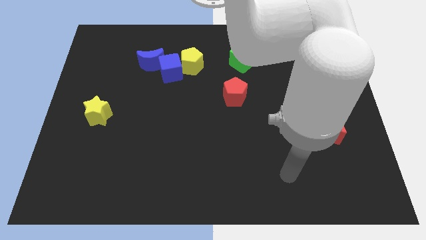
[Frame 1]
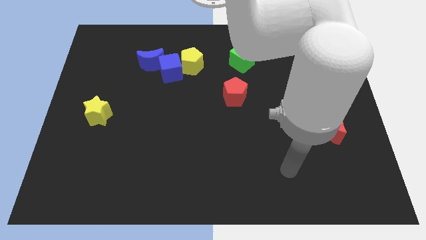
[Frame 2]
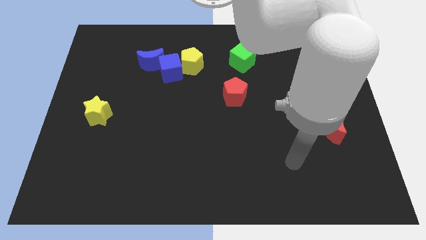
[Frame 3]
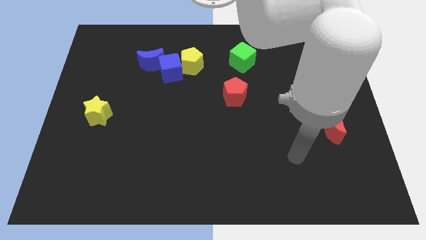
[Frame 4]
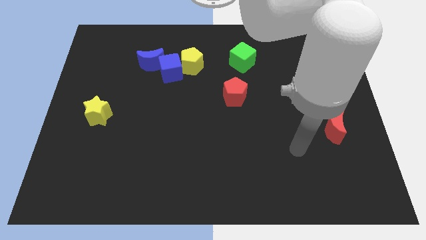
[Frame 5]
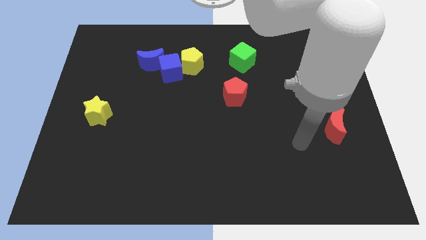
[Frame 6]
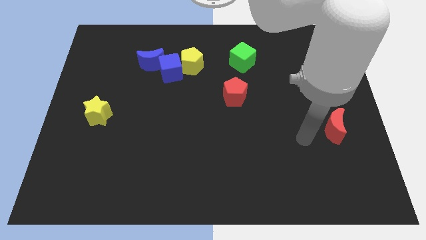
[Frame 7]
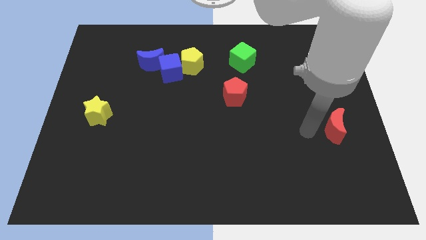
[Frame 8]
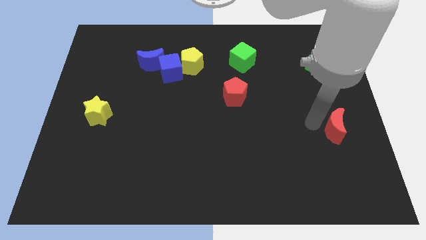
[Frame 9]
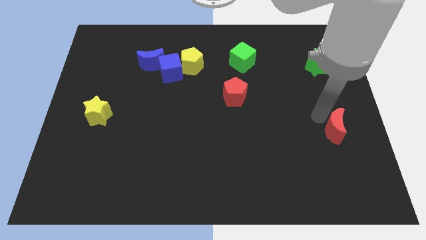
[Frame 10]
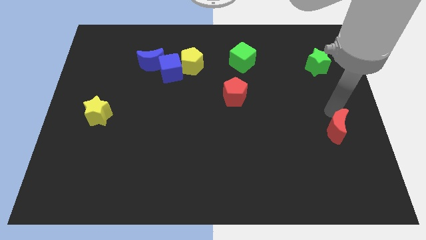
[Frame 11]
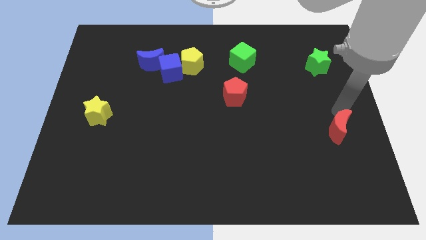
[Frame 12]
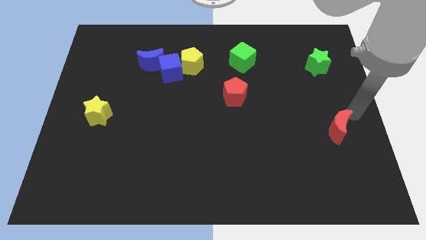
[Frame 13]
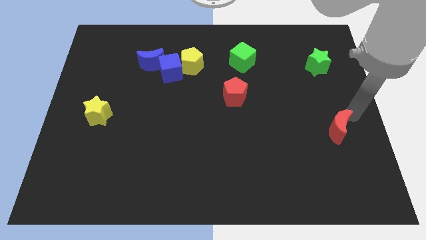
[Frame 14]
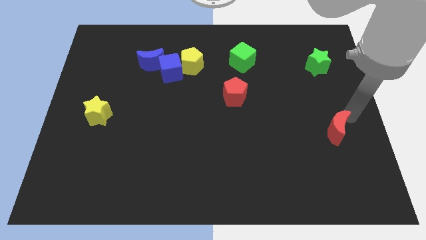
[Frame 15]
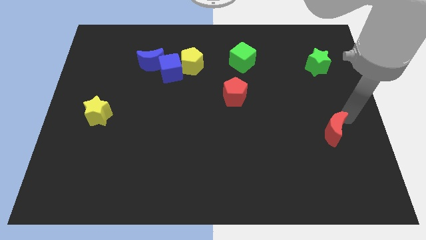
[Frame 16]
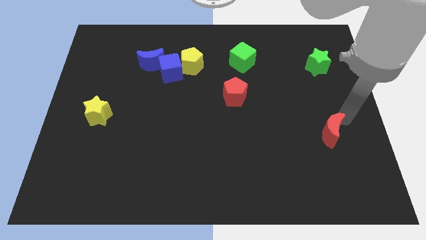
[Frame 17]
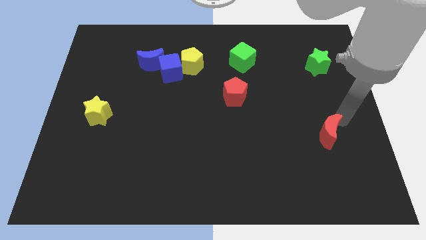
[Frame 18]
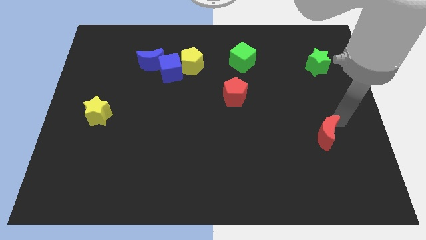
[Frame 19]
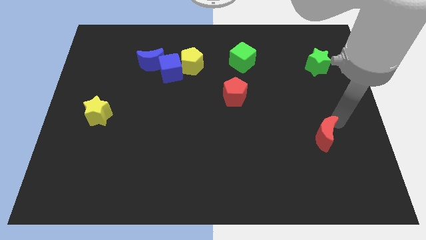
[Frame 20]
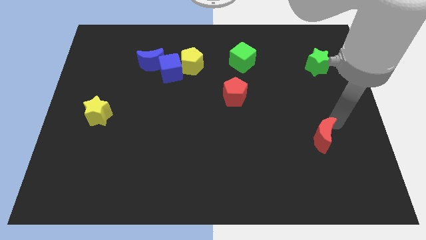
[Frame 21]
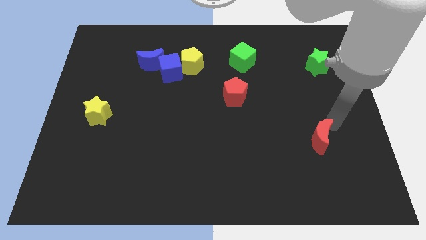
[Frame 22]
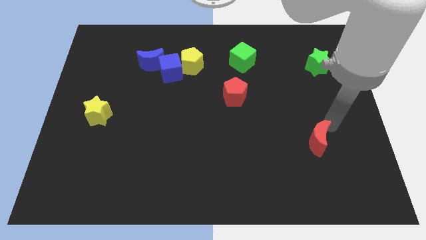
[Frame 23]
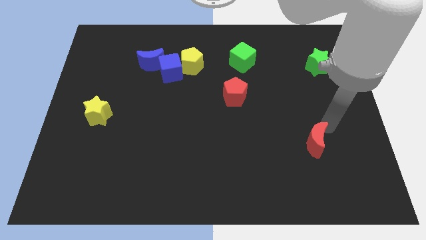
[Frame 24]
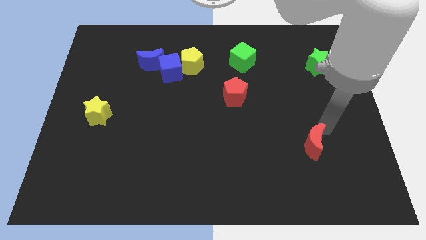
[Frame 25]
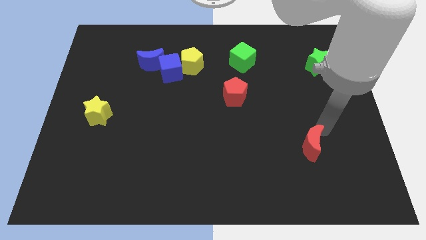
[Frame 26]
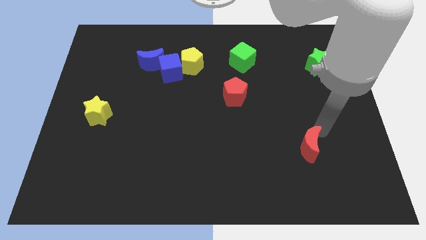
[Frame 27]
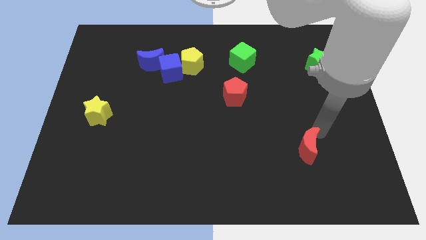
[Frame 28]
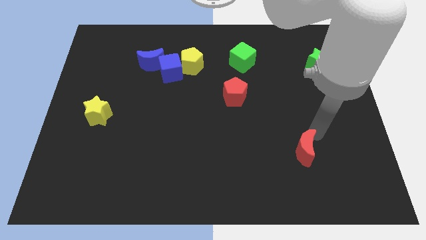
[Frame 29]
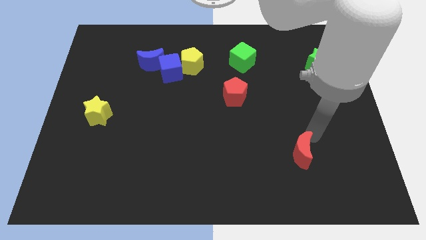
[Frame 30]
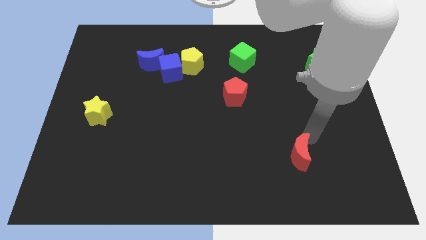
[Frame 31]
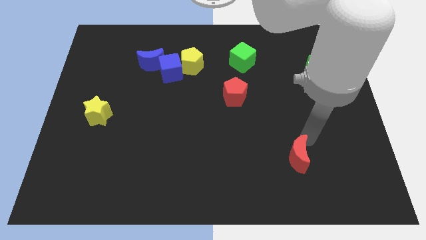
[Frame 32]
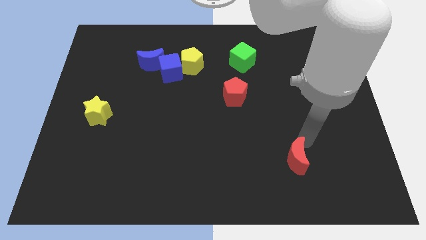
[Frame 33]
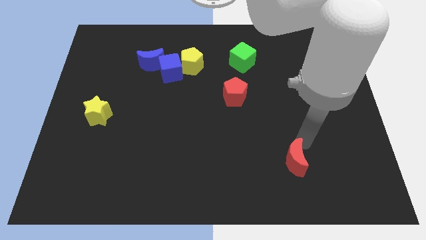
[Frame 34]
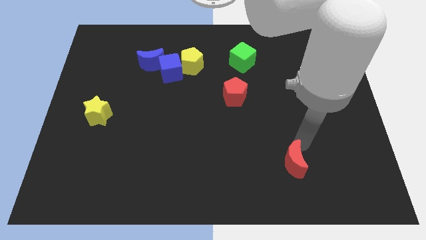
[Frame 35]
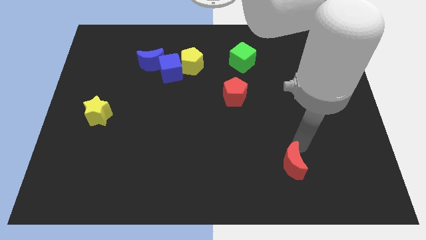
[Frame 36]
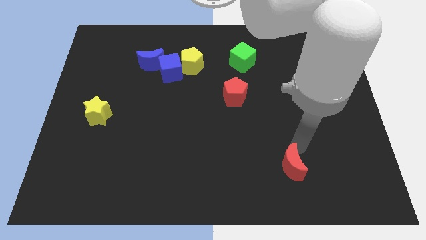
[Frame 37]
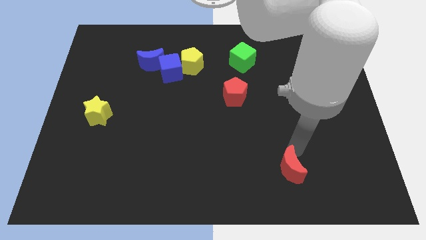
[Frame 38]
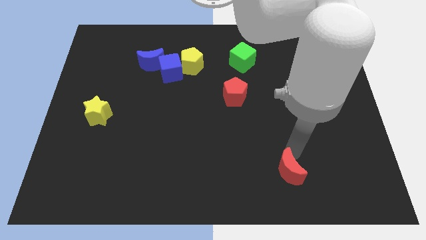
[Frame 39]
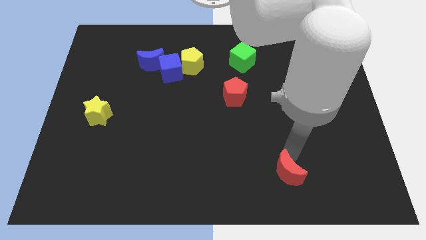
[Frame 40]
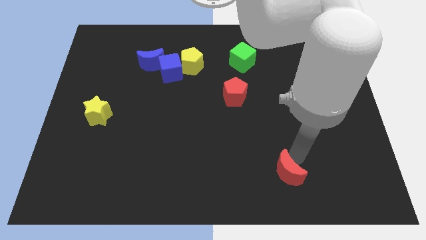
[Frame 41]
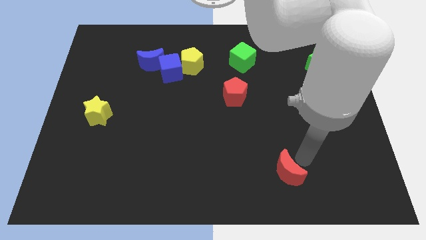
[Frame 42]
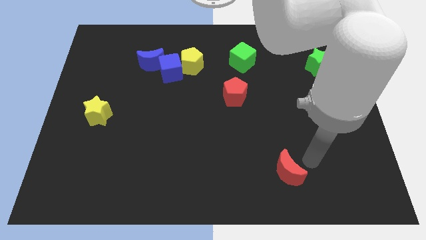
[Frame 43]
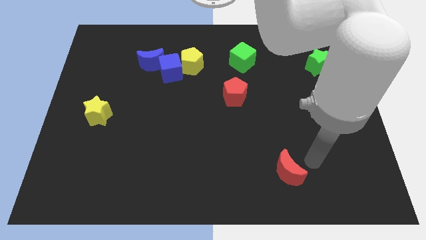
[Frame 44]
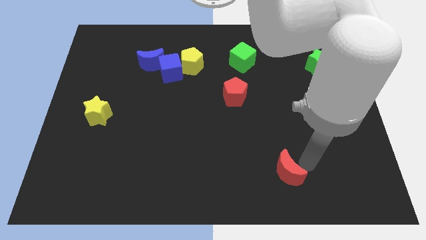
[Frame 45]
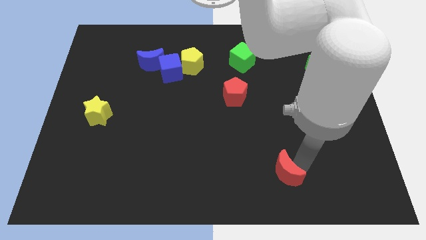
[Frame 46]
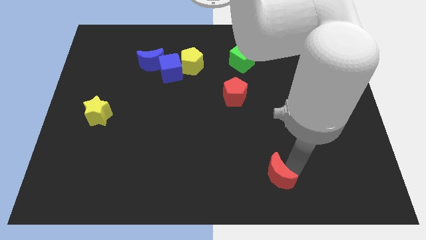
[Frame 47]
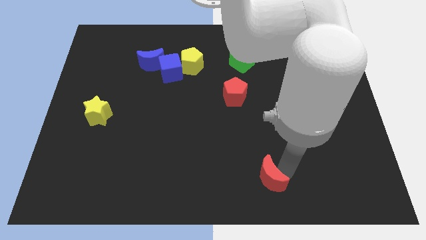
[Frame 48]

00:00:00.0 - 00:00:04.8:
put the red moon to the bottom side

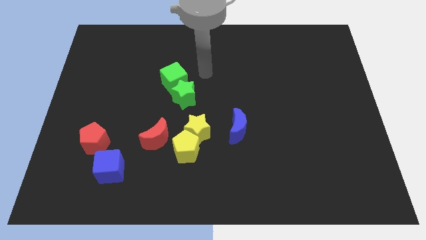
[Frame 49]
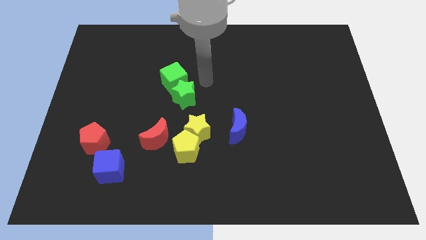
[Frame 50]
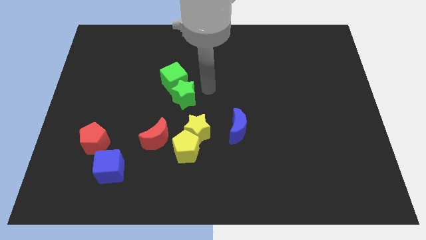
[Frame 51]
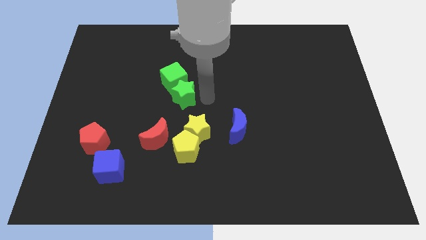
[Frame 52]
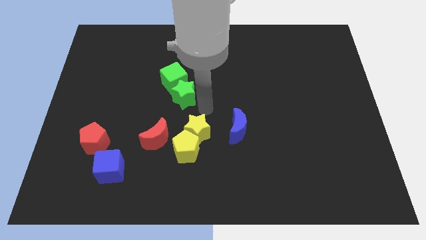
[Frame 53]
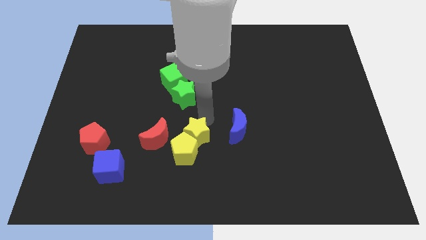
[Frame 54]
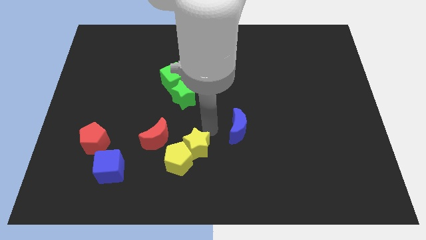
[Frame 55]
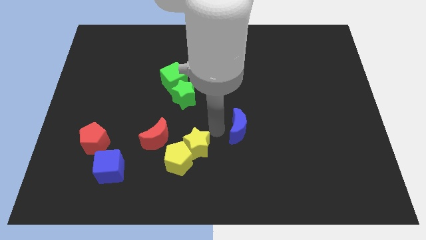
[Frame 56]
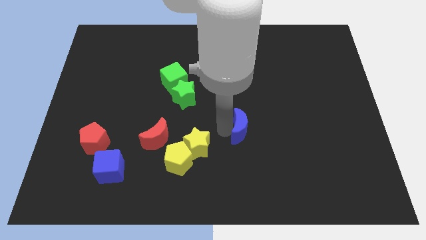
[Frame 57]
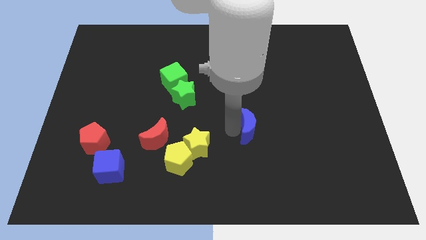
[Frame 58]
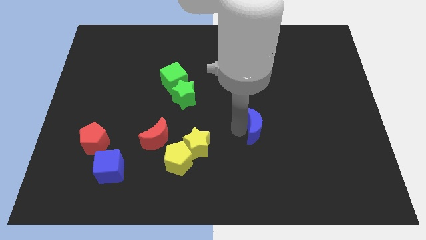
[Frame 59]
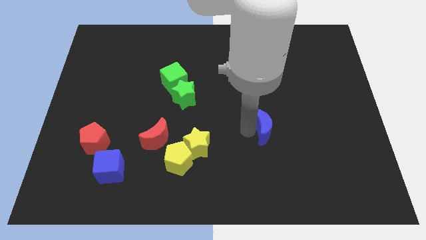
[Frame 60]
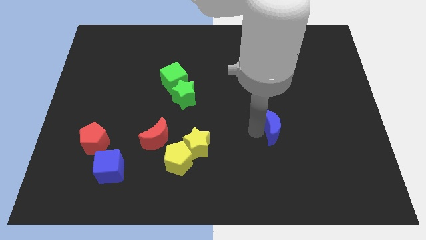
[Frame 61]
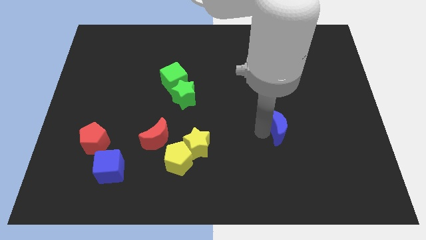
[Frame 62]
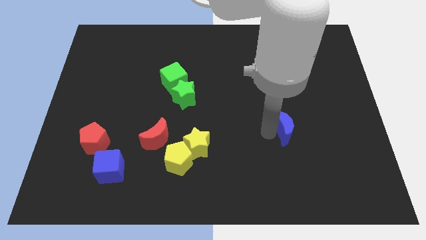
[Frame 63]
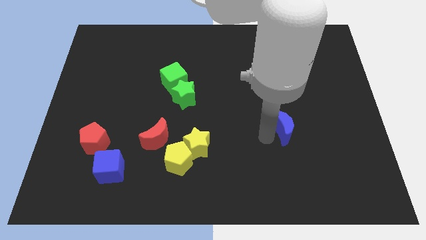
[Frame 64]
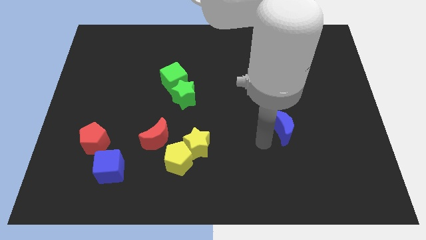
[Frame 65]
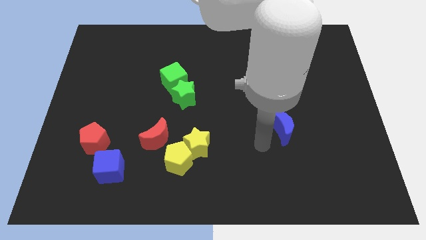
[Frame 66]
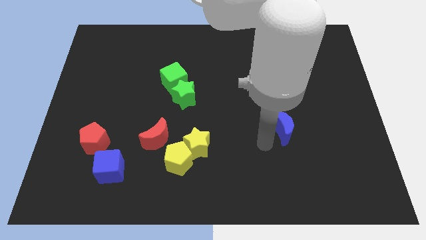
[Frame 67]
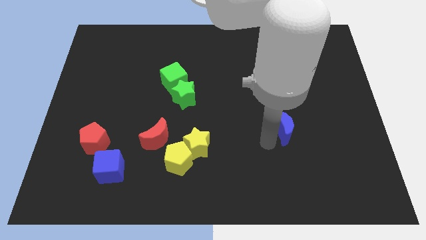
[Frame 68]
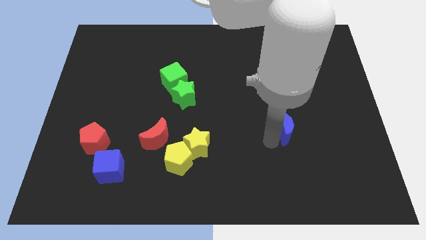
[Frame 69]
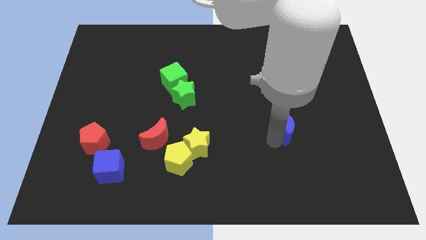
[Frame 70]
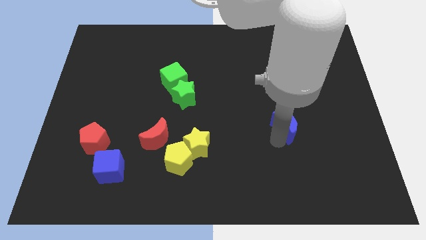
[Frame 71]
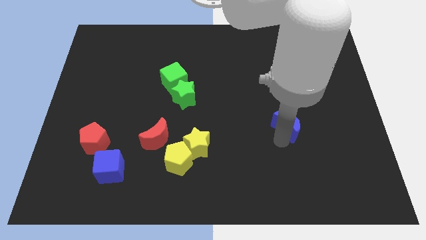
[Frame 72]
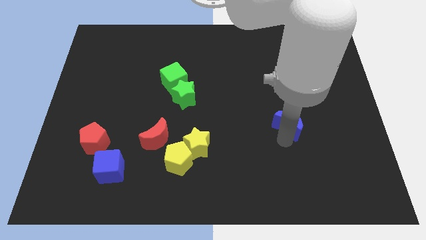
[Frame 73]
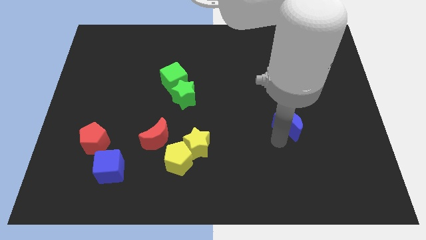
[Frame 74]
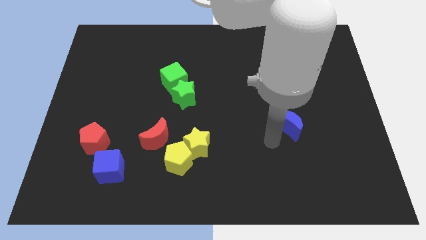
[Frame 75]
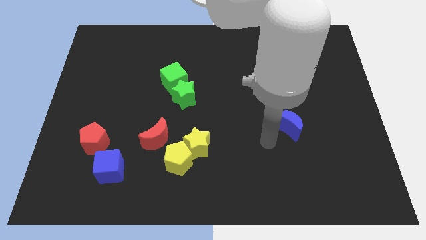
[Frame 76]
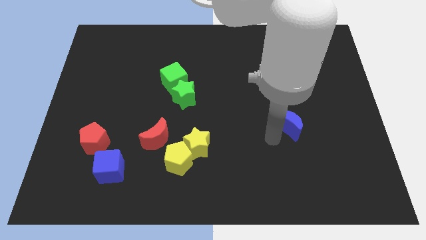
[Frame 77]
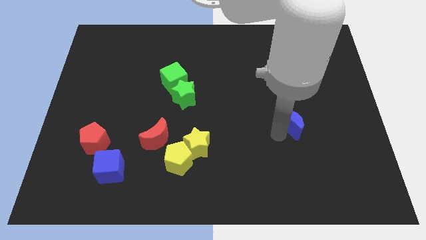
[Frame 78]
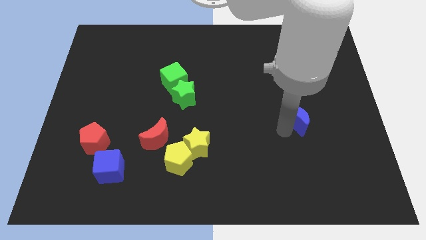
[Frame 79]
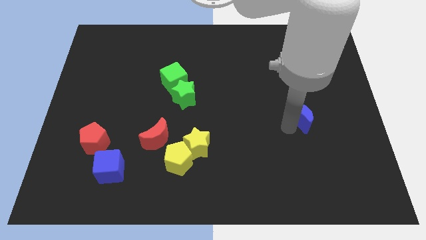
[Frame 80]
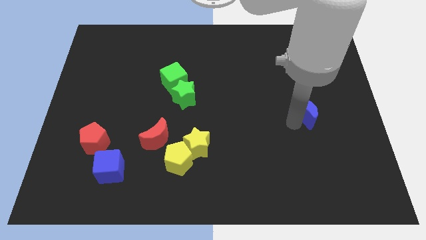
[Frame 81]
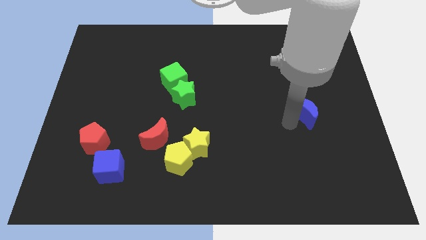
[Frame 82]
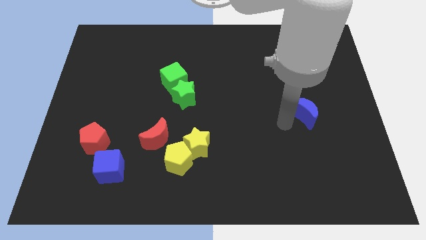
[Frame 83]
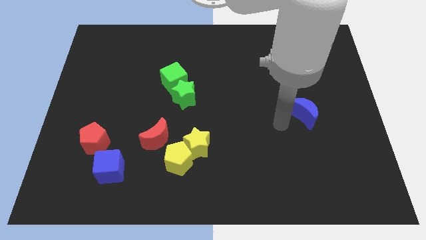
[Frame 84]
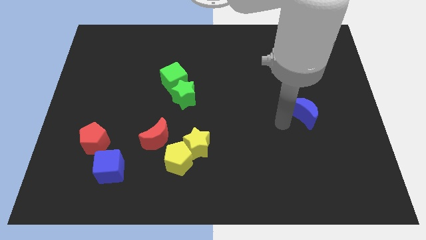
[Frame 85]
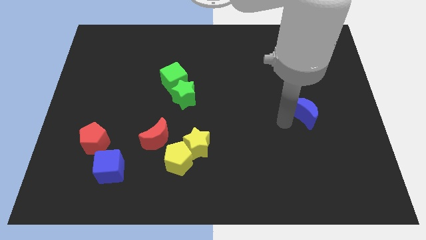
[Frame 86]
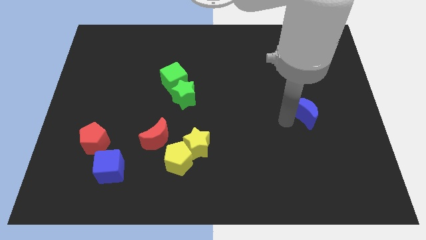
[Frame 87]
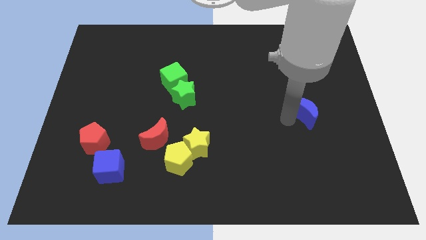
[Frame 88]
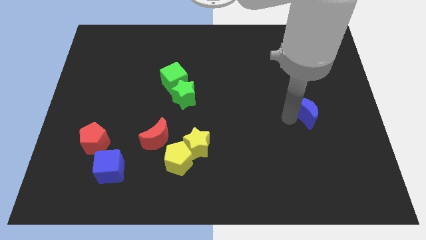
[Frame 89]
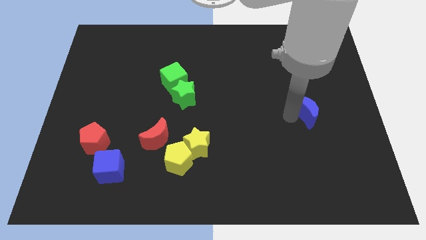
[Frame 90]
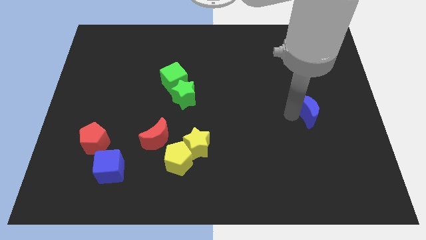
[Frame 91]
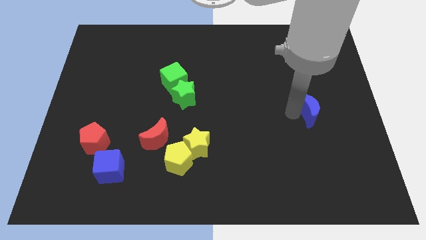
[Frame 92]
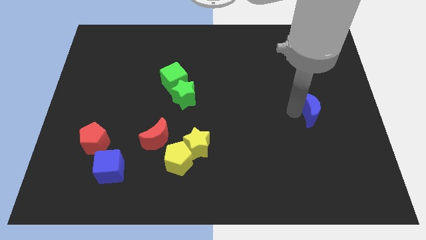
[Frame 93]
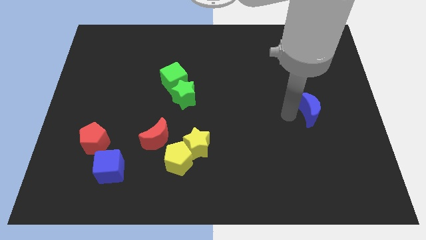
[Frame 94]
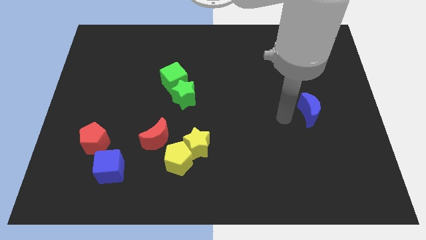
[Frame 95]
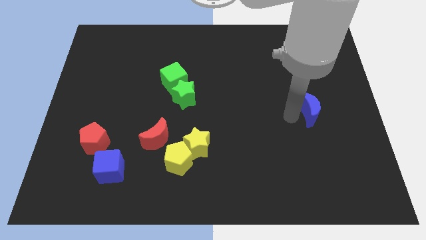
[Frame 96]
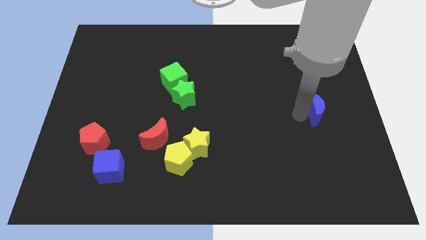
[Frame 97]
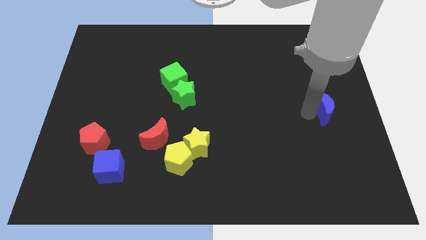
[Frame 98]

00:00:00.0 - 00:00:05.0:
move the blue moon to the center right
